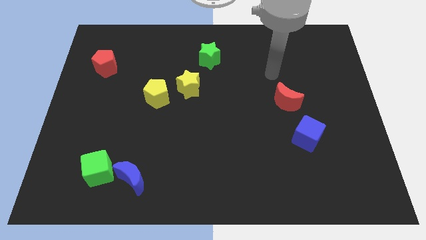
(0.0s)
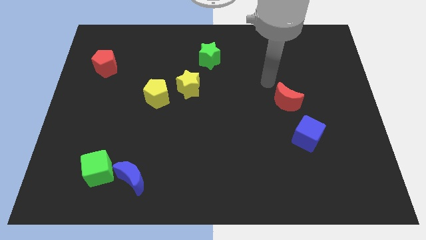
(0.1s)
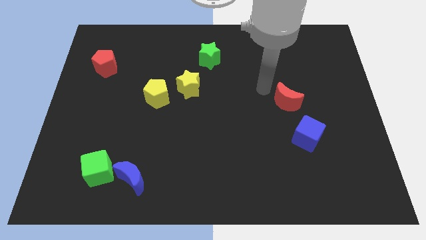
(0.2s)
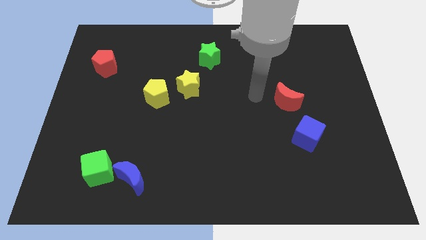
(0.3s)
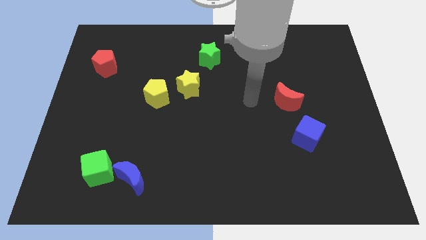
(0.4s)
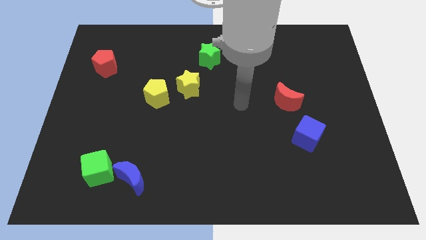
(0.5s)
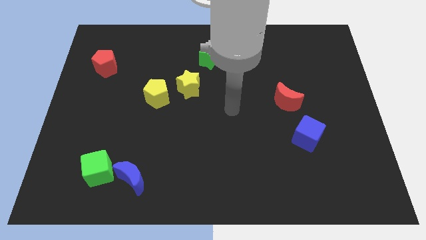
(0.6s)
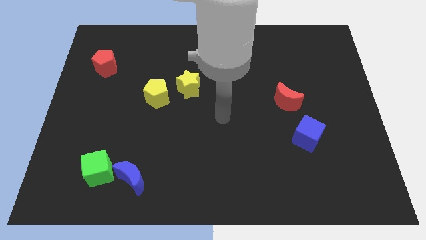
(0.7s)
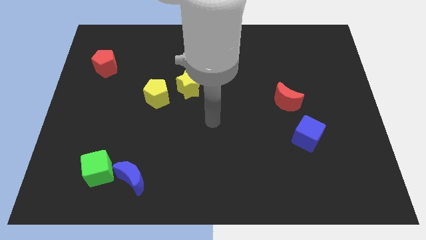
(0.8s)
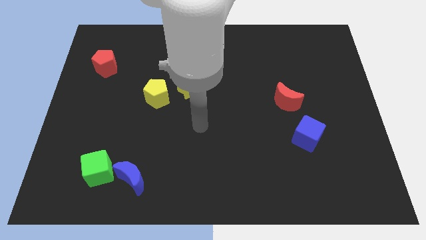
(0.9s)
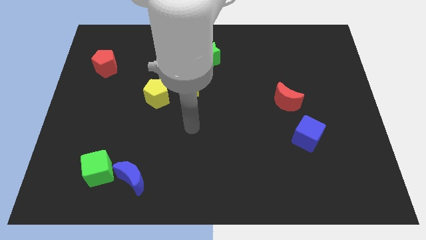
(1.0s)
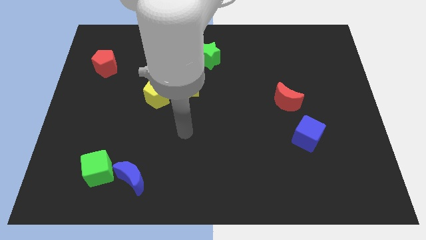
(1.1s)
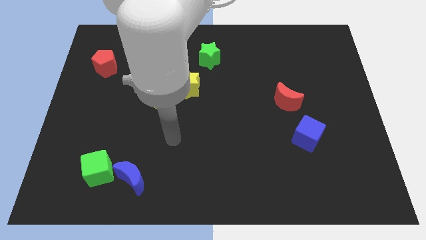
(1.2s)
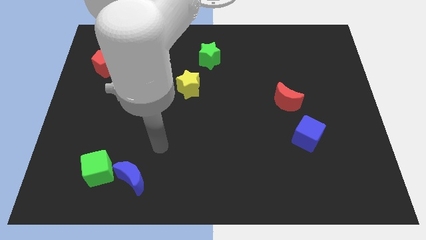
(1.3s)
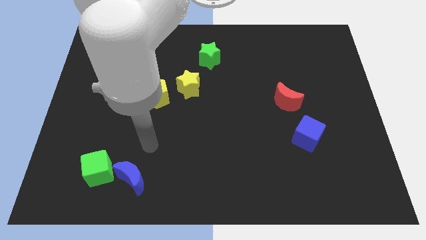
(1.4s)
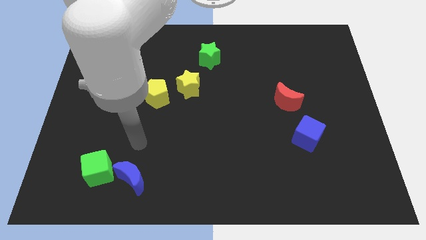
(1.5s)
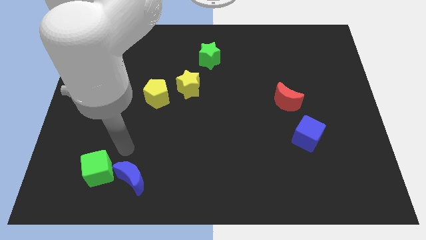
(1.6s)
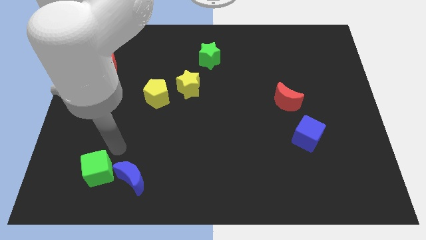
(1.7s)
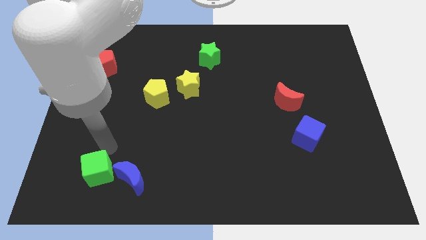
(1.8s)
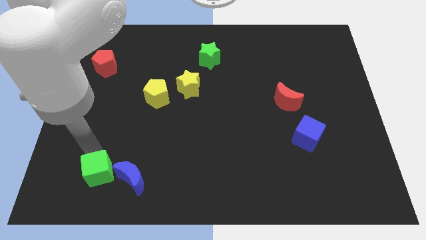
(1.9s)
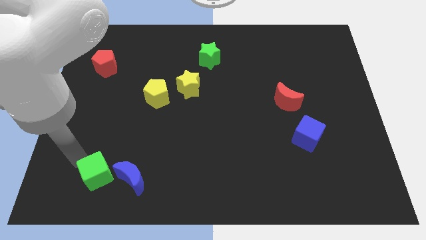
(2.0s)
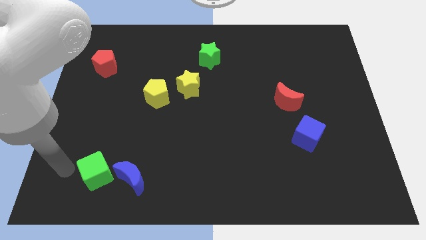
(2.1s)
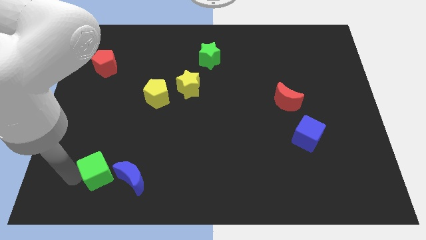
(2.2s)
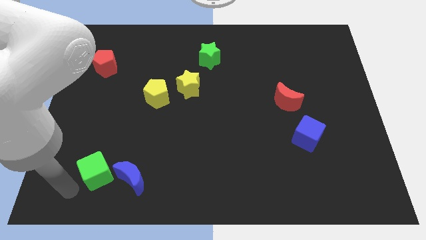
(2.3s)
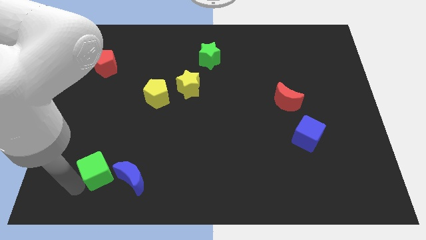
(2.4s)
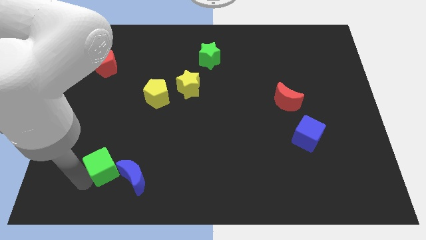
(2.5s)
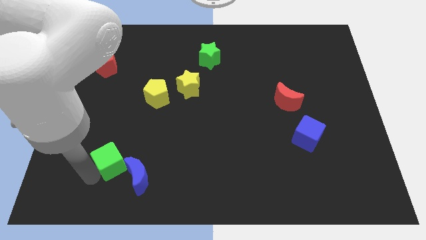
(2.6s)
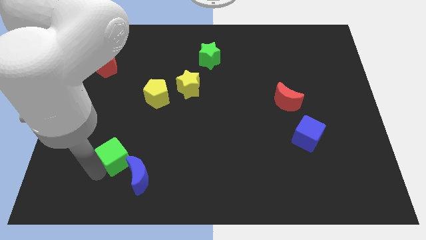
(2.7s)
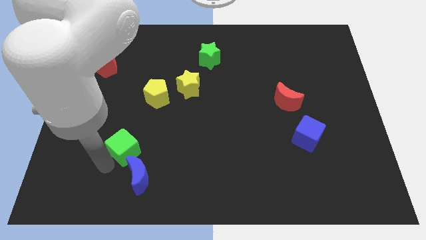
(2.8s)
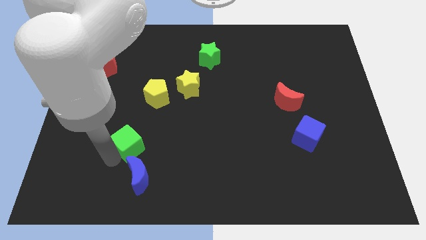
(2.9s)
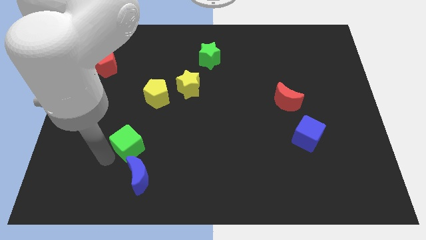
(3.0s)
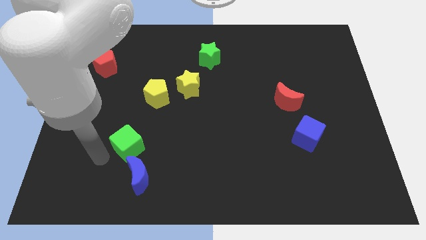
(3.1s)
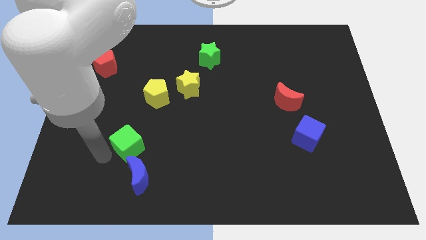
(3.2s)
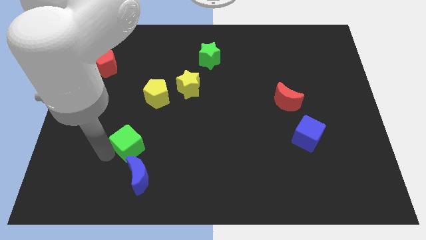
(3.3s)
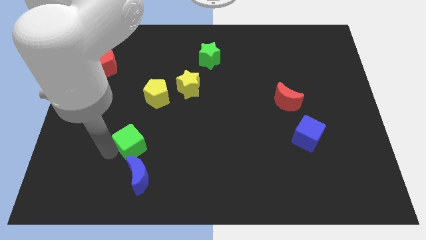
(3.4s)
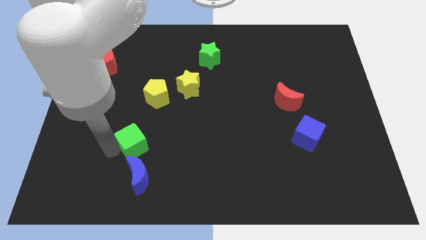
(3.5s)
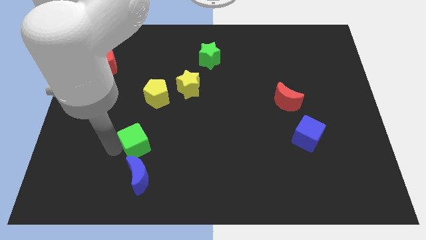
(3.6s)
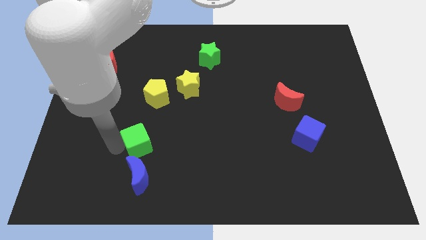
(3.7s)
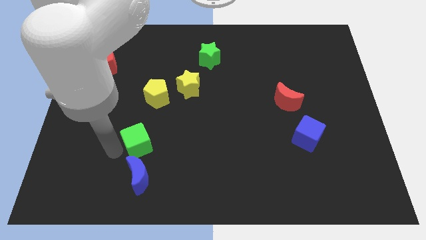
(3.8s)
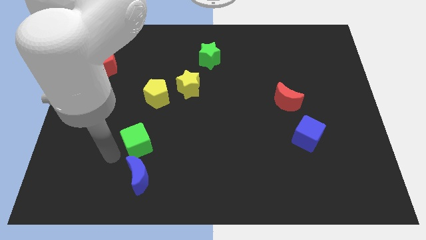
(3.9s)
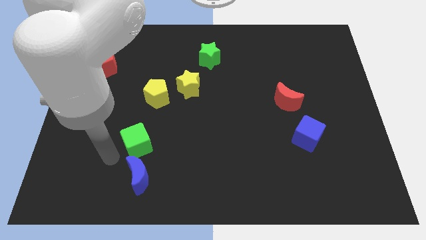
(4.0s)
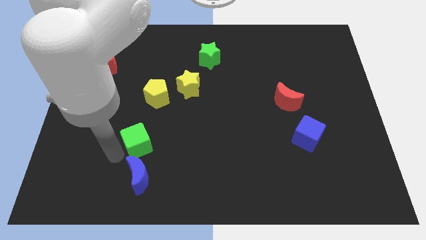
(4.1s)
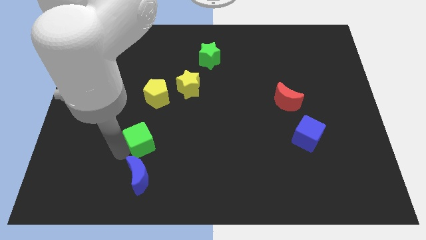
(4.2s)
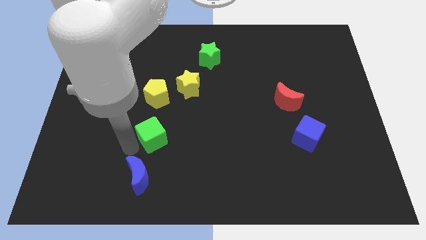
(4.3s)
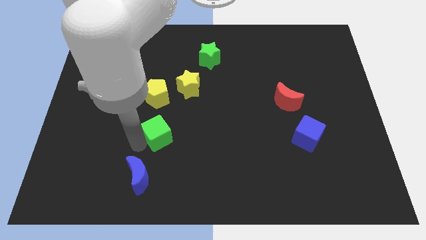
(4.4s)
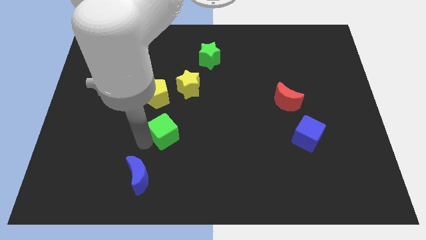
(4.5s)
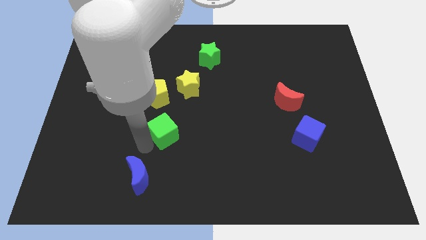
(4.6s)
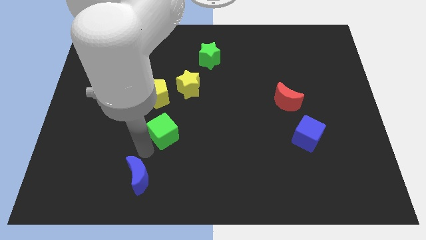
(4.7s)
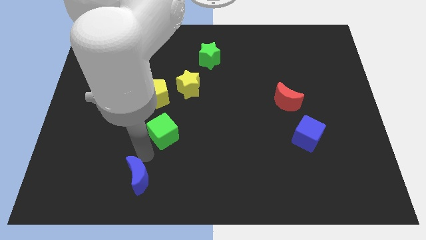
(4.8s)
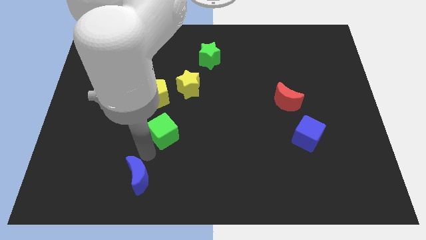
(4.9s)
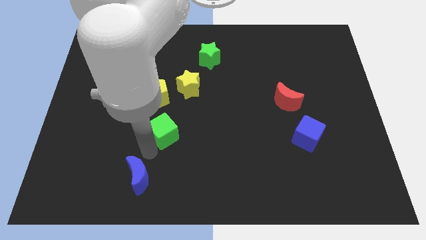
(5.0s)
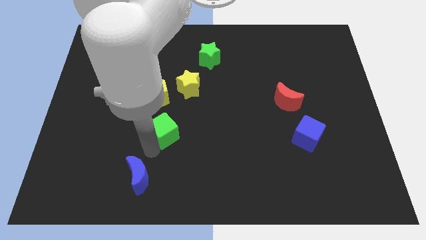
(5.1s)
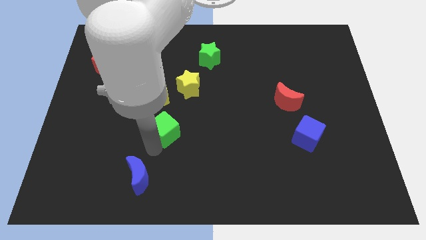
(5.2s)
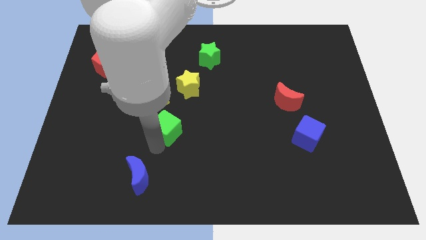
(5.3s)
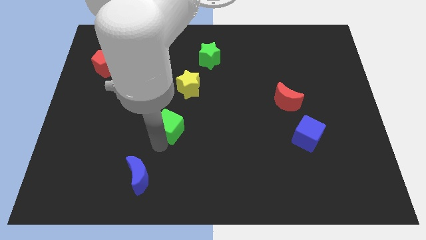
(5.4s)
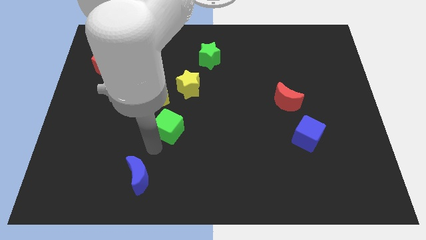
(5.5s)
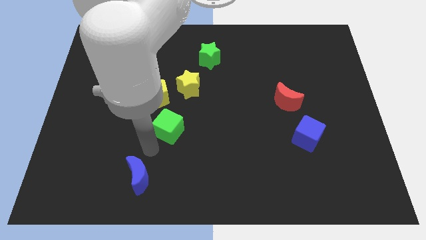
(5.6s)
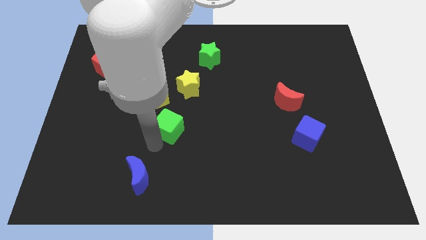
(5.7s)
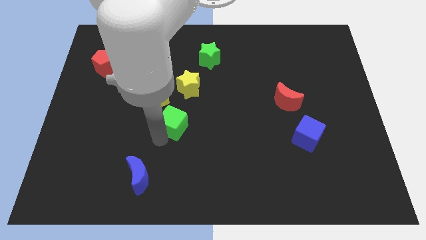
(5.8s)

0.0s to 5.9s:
move the green cube to the middle
